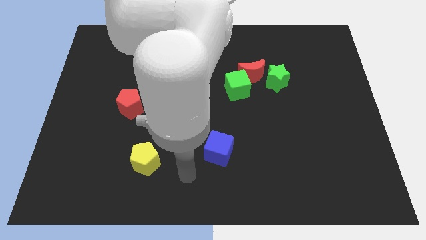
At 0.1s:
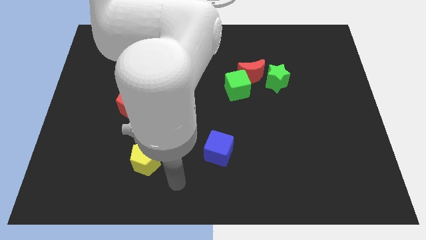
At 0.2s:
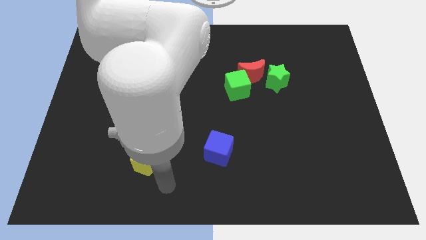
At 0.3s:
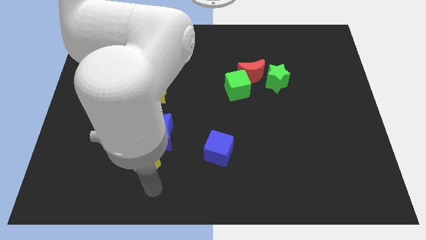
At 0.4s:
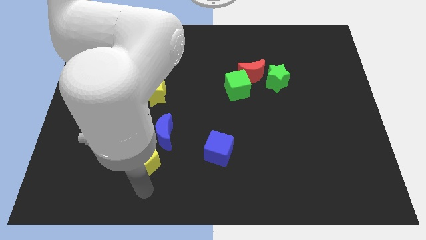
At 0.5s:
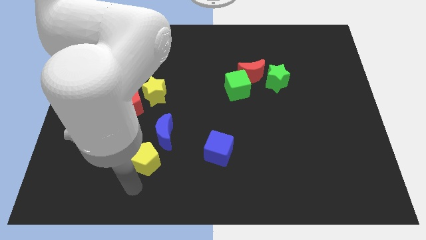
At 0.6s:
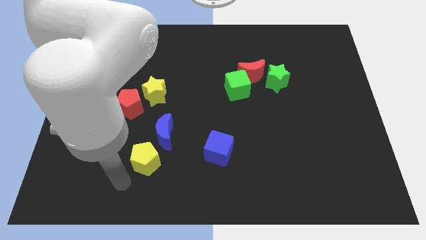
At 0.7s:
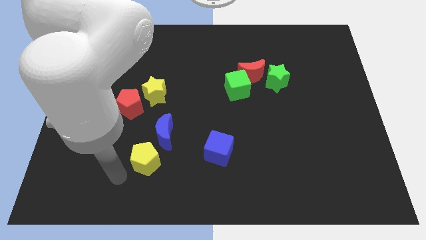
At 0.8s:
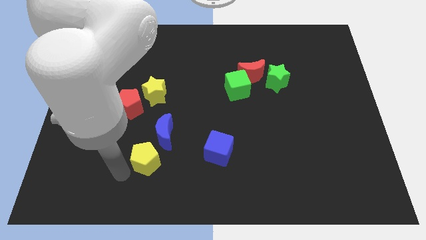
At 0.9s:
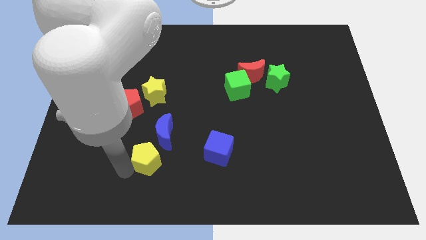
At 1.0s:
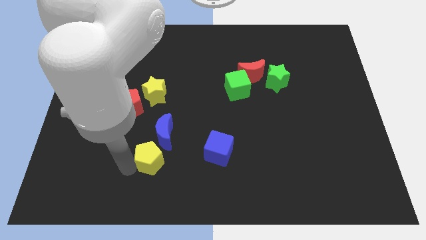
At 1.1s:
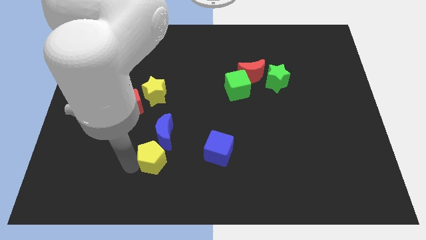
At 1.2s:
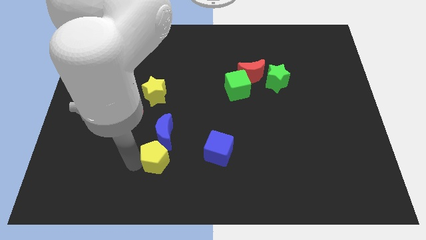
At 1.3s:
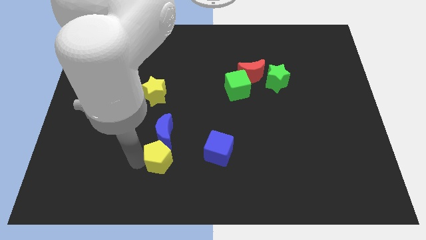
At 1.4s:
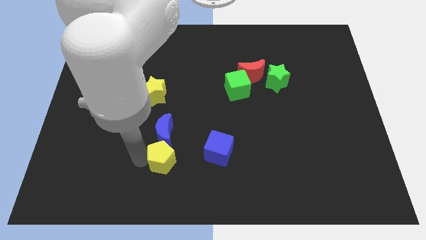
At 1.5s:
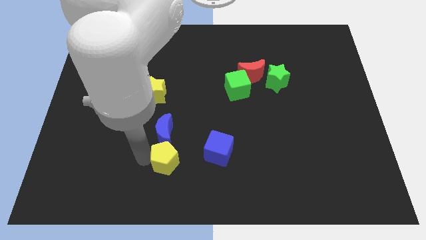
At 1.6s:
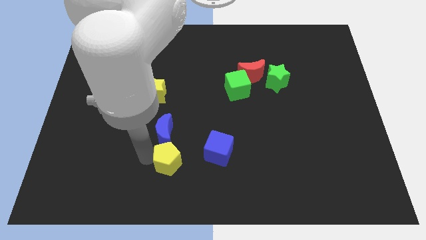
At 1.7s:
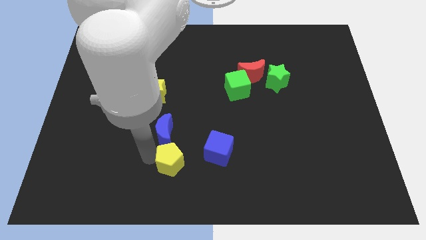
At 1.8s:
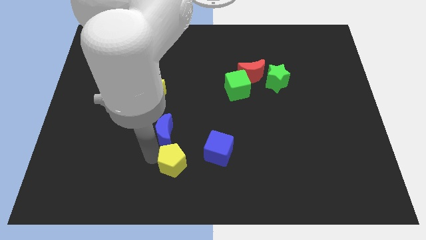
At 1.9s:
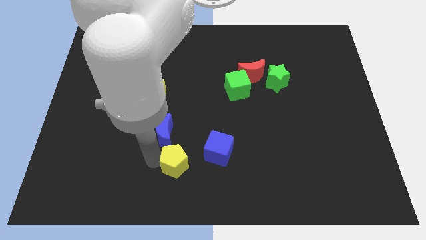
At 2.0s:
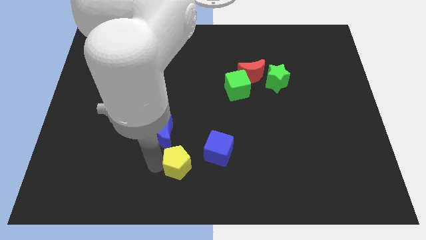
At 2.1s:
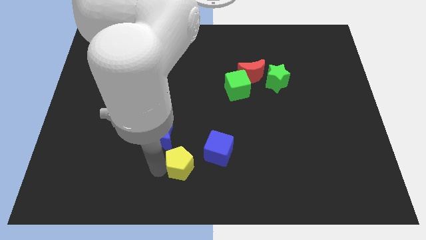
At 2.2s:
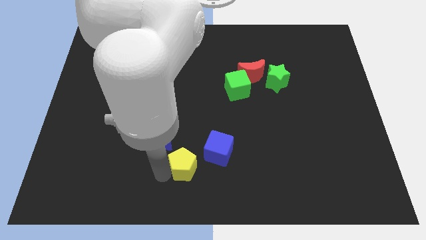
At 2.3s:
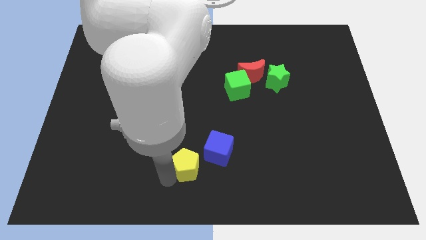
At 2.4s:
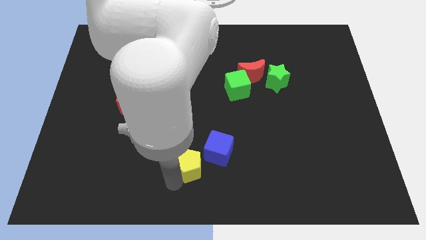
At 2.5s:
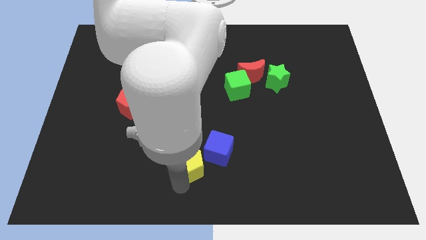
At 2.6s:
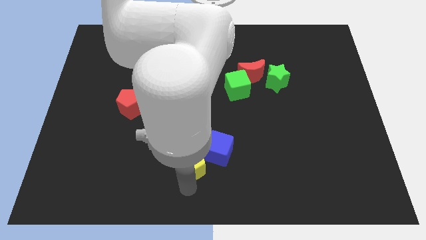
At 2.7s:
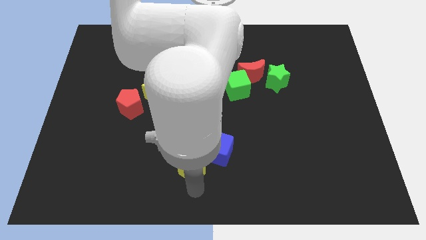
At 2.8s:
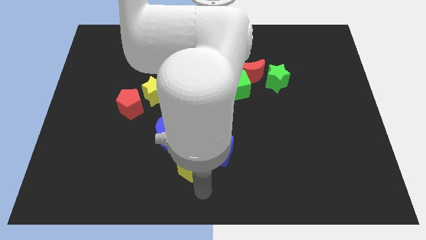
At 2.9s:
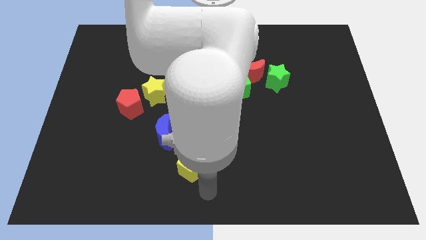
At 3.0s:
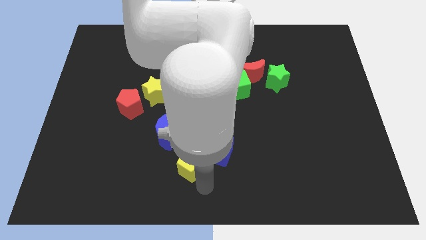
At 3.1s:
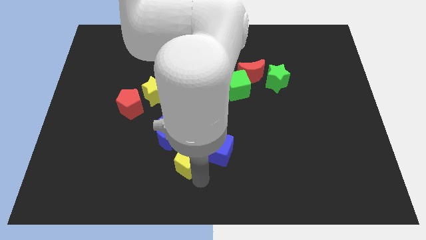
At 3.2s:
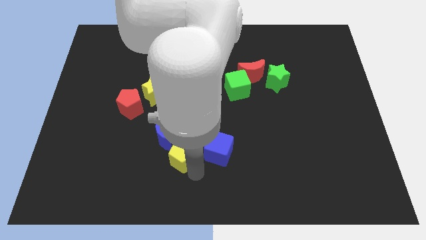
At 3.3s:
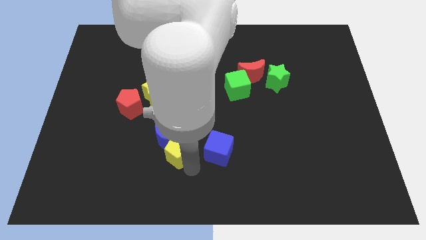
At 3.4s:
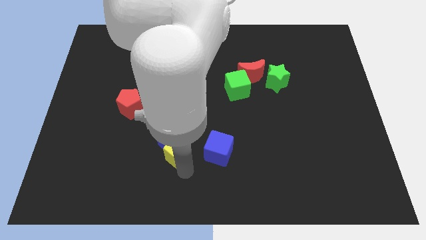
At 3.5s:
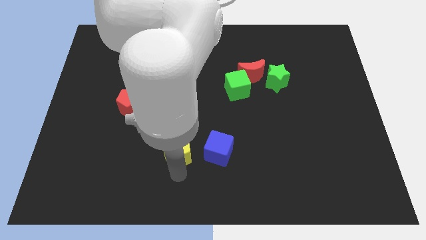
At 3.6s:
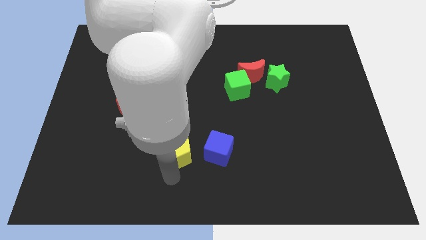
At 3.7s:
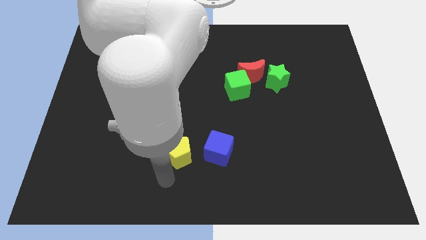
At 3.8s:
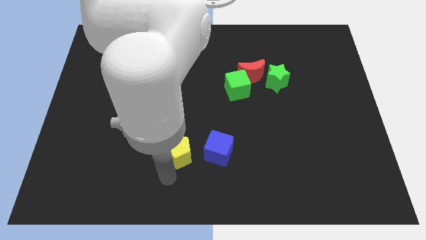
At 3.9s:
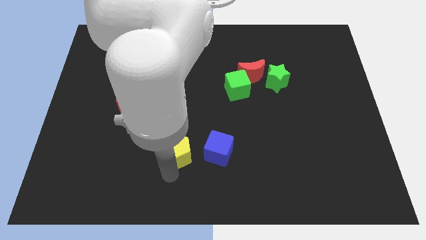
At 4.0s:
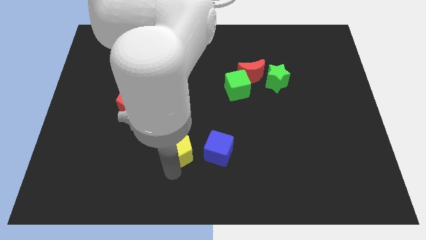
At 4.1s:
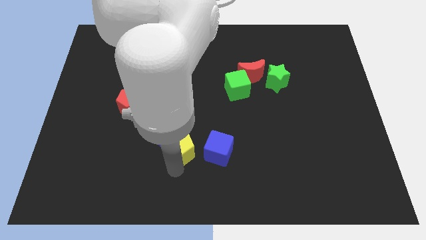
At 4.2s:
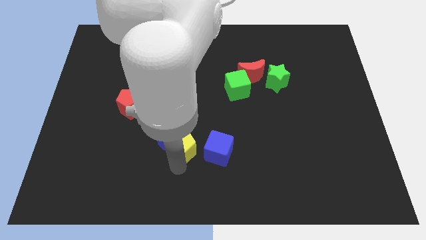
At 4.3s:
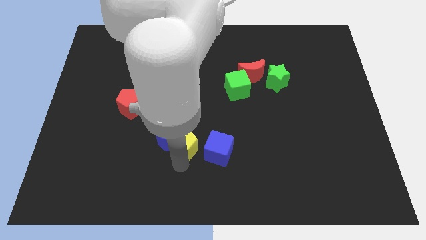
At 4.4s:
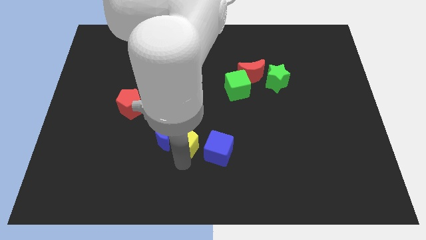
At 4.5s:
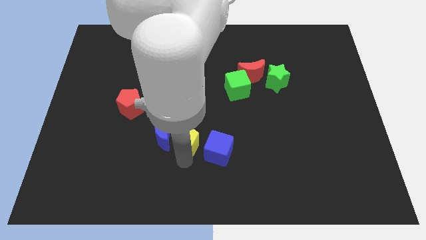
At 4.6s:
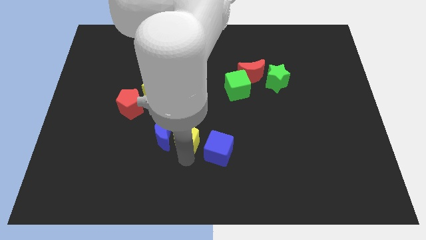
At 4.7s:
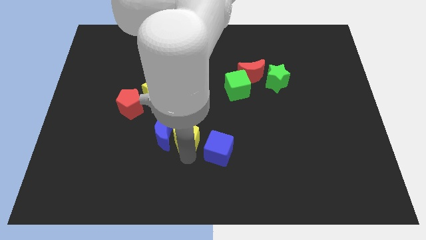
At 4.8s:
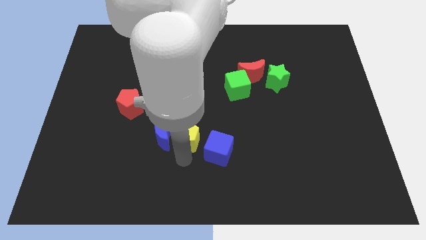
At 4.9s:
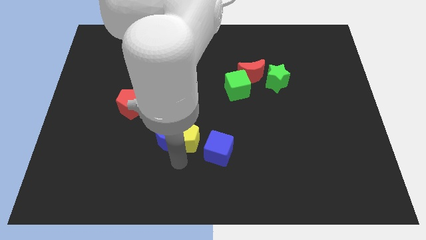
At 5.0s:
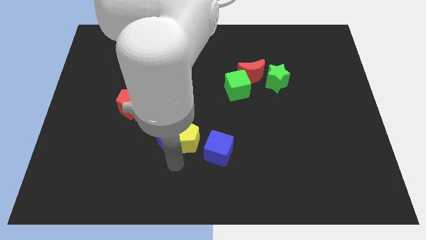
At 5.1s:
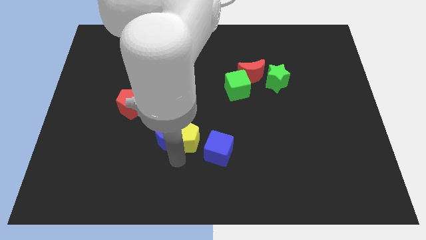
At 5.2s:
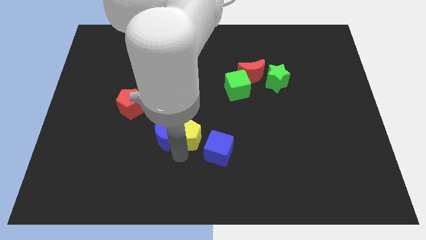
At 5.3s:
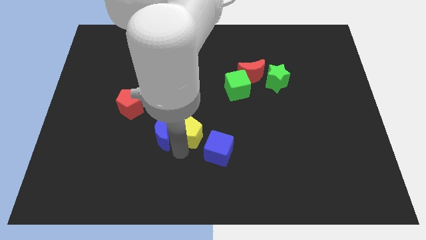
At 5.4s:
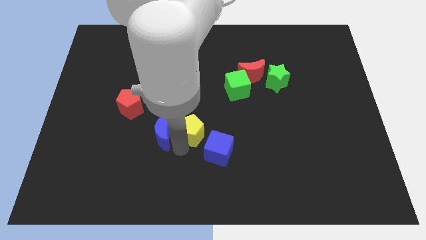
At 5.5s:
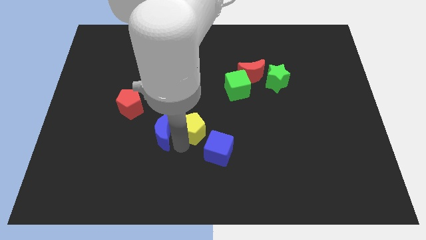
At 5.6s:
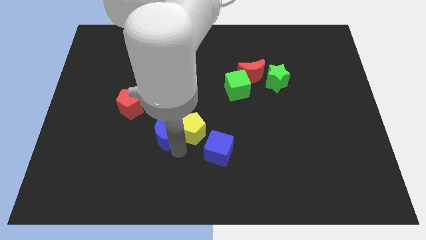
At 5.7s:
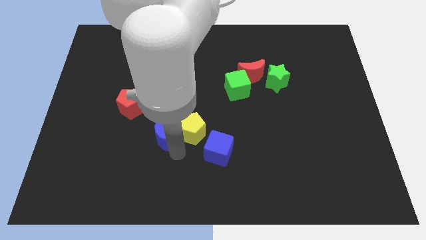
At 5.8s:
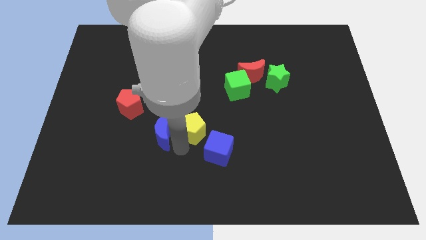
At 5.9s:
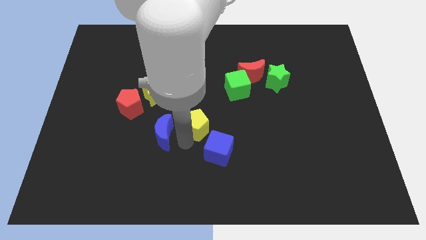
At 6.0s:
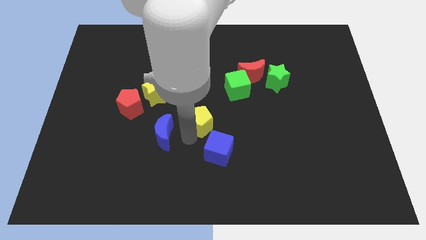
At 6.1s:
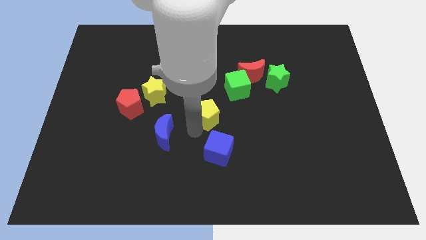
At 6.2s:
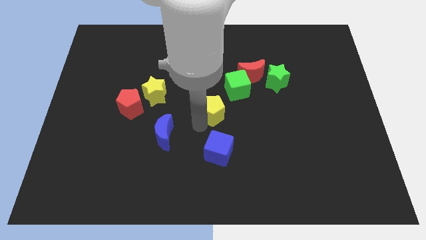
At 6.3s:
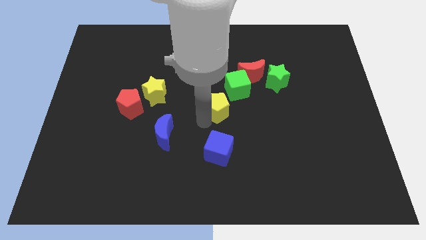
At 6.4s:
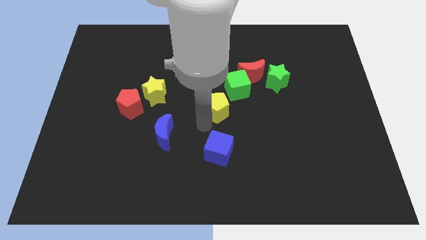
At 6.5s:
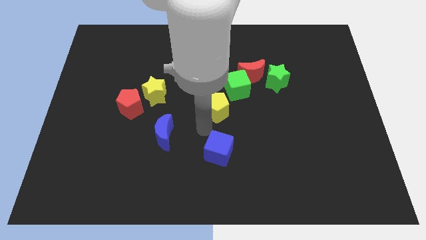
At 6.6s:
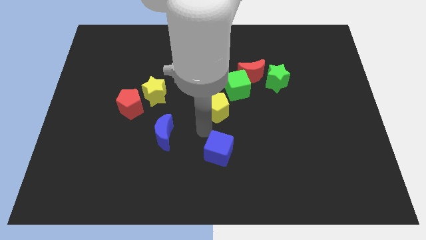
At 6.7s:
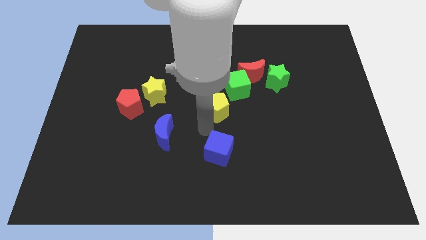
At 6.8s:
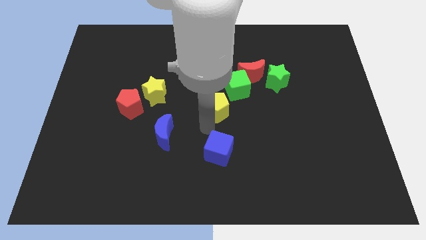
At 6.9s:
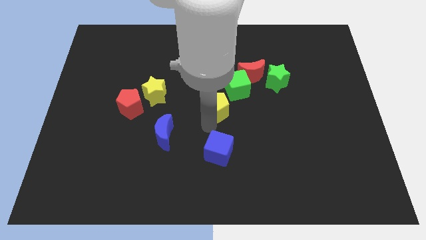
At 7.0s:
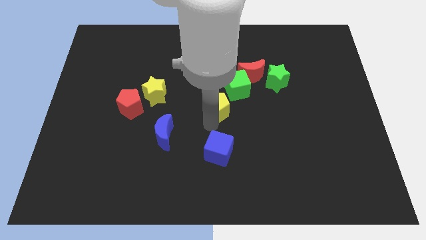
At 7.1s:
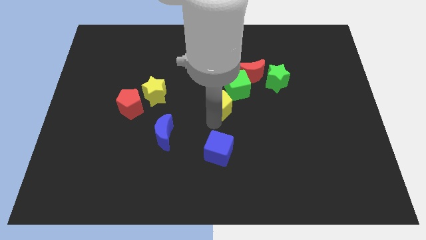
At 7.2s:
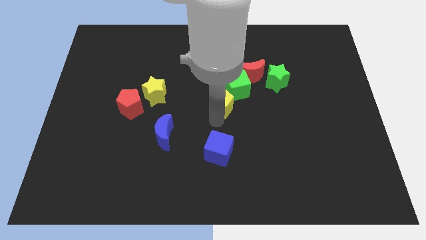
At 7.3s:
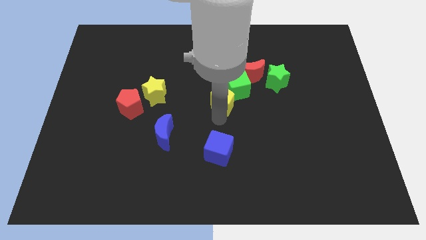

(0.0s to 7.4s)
move the yellow pentagon close to the green cube
